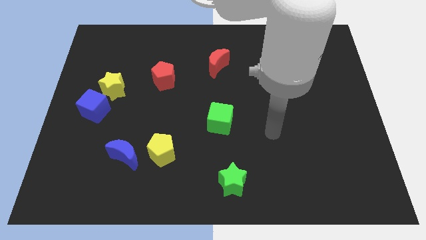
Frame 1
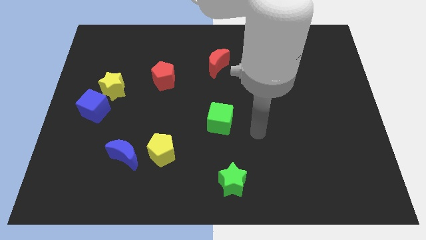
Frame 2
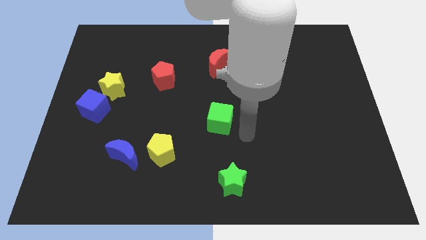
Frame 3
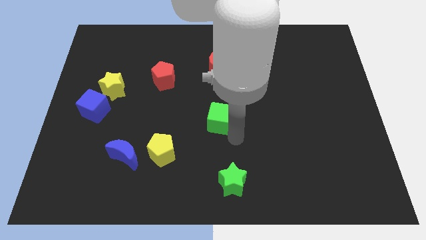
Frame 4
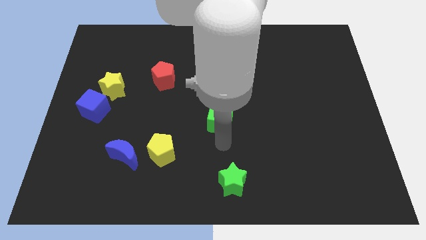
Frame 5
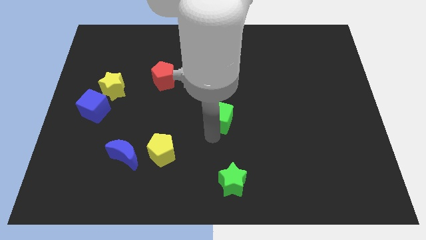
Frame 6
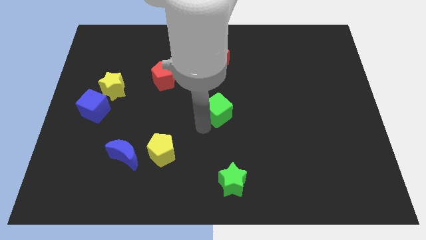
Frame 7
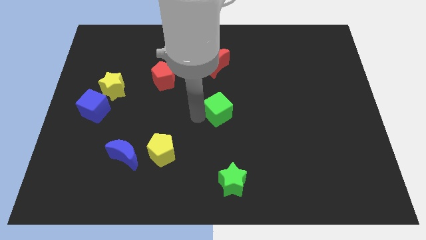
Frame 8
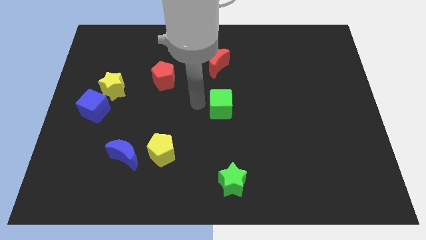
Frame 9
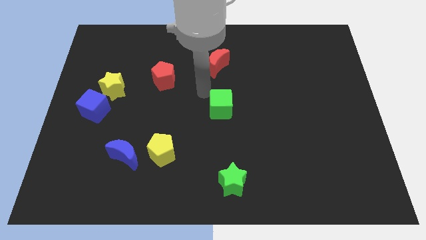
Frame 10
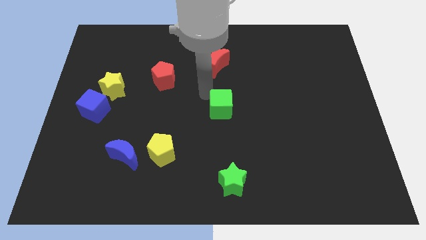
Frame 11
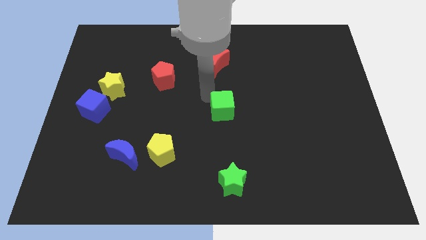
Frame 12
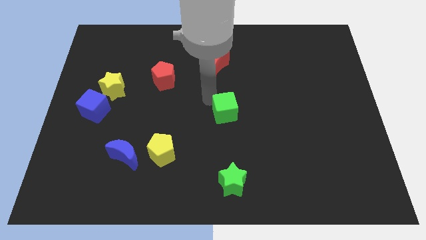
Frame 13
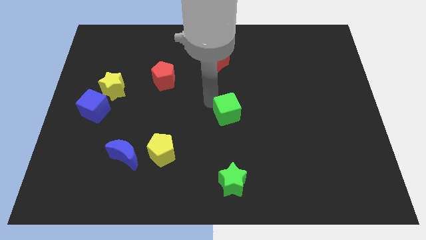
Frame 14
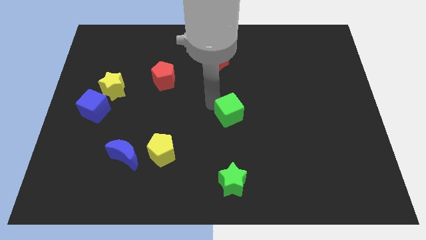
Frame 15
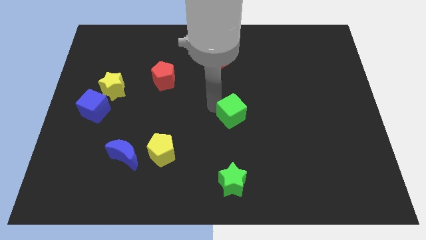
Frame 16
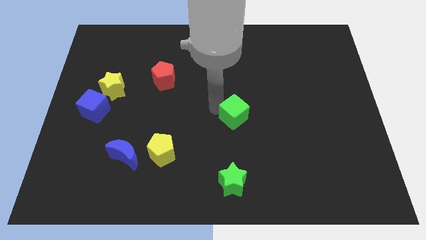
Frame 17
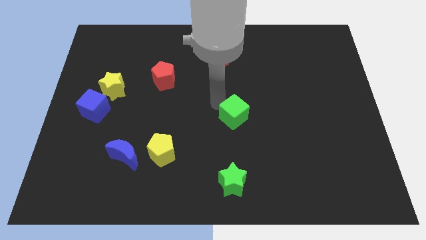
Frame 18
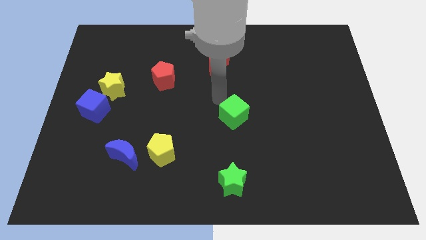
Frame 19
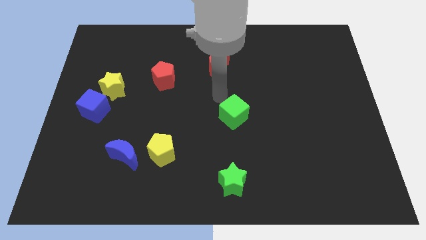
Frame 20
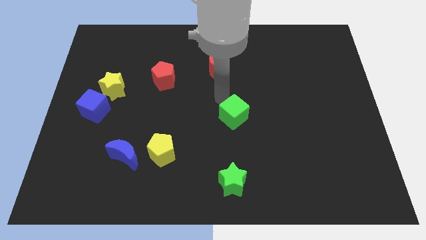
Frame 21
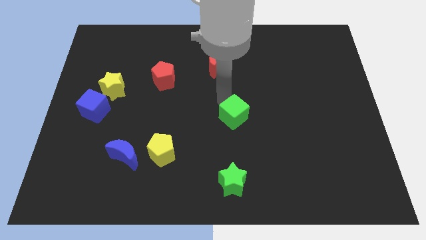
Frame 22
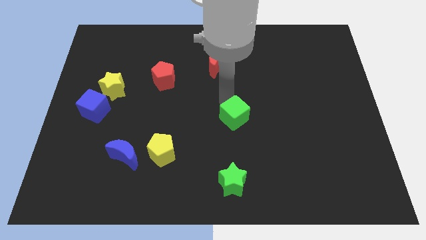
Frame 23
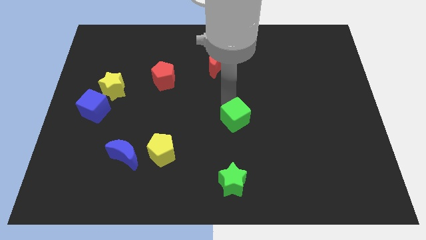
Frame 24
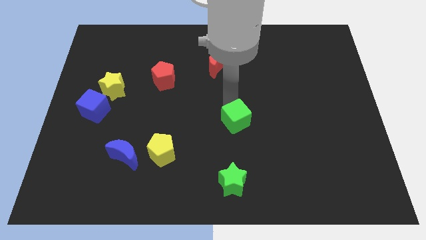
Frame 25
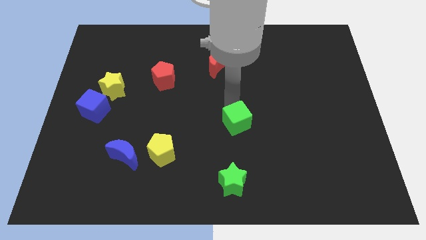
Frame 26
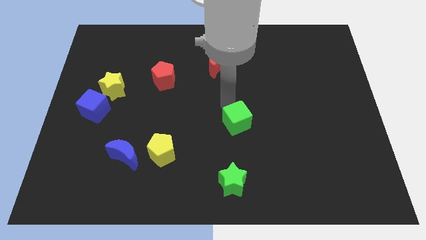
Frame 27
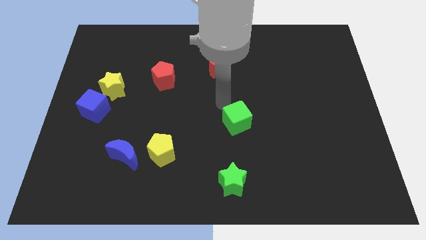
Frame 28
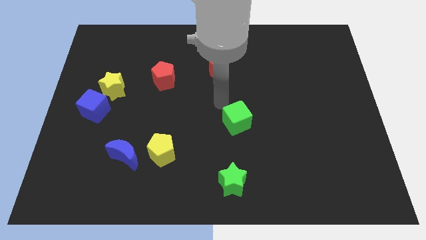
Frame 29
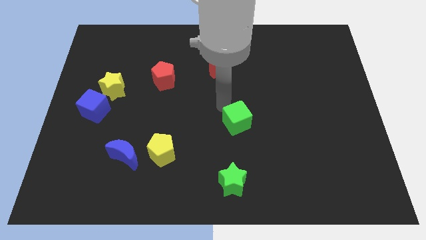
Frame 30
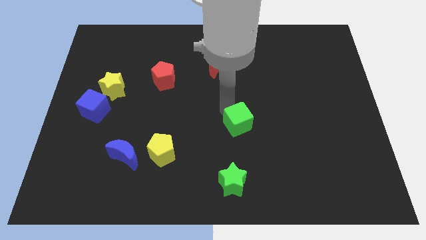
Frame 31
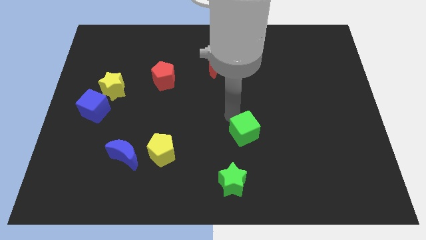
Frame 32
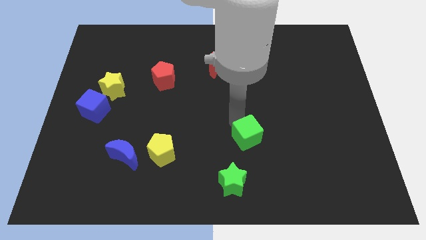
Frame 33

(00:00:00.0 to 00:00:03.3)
slide the green cube downwards and then to the right a bit

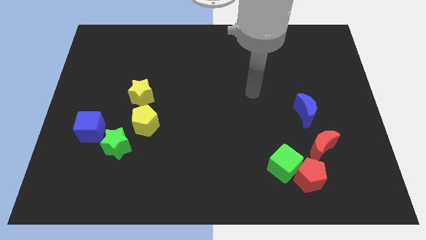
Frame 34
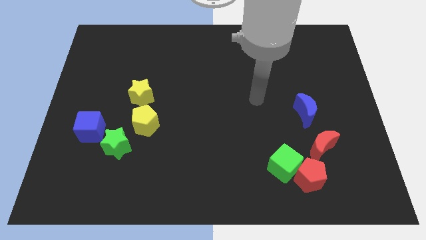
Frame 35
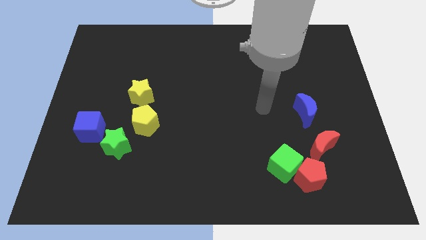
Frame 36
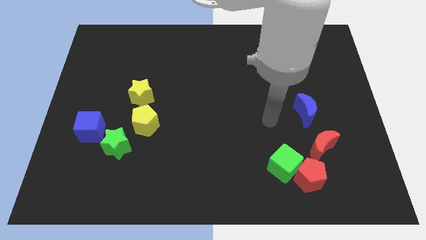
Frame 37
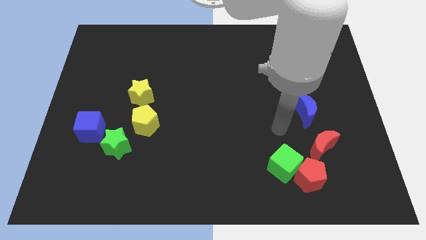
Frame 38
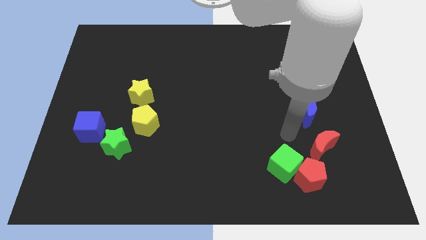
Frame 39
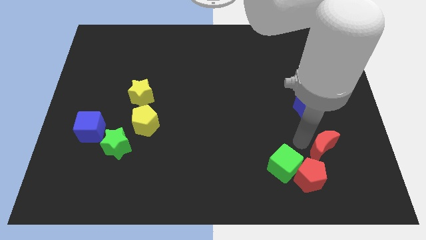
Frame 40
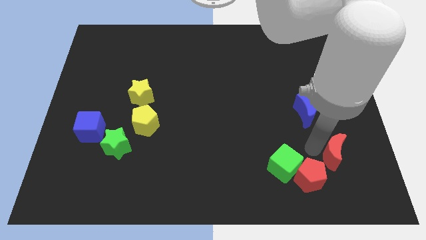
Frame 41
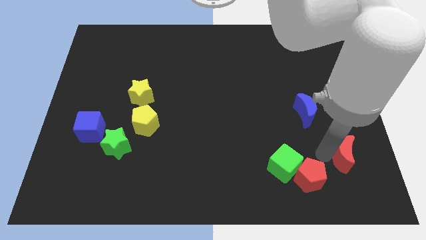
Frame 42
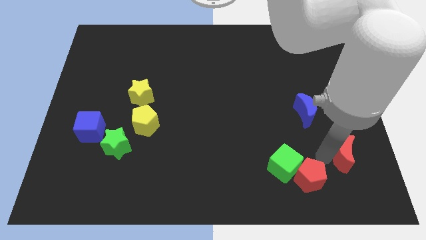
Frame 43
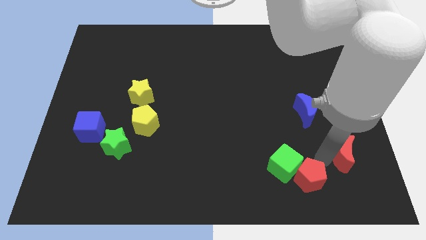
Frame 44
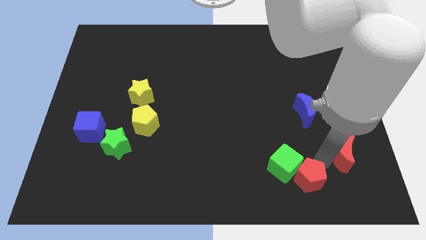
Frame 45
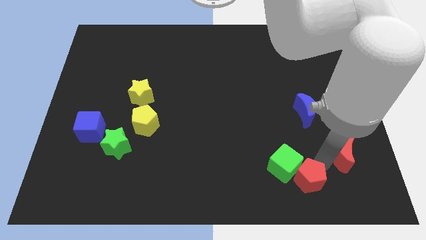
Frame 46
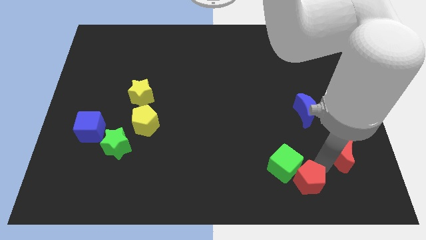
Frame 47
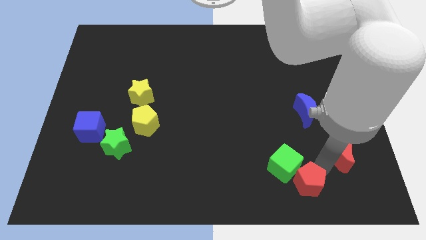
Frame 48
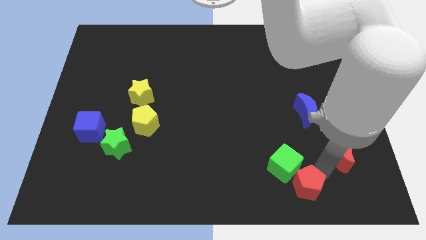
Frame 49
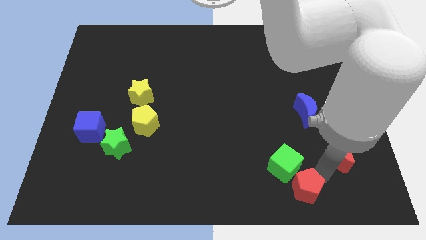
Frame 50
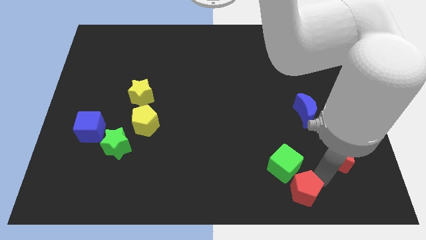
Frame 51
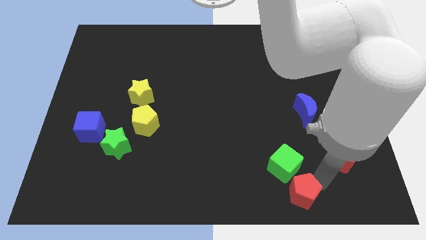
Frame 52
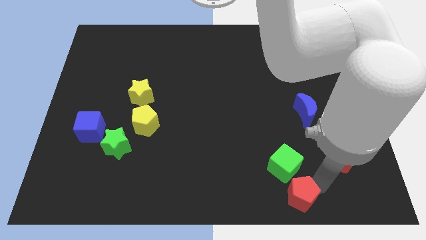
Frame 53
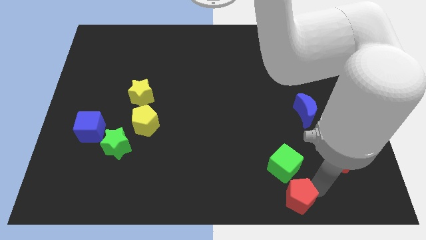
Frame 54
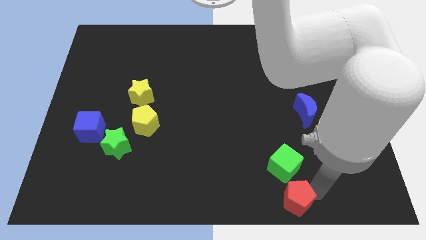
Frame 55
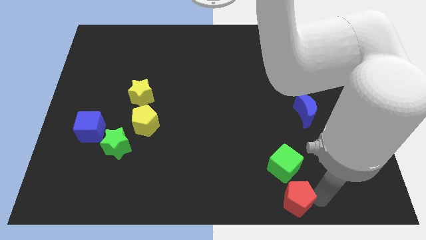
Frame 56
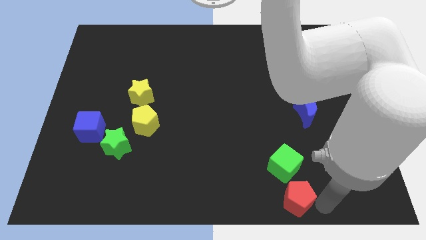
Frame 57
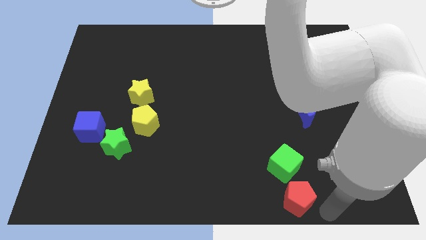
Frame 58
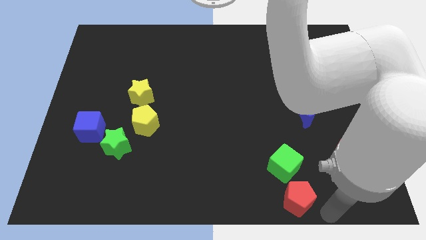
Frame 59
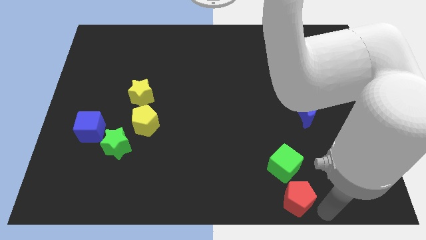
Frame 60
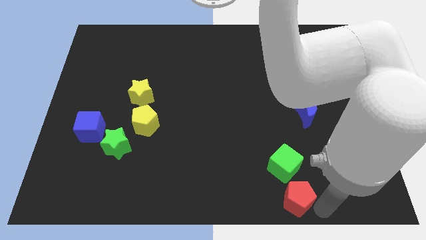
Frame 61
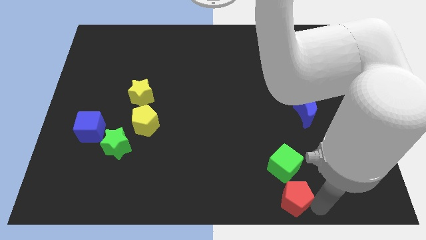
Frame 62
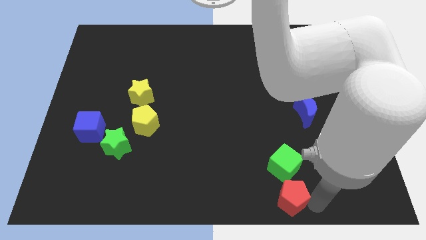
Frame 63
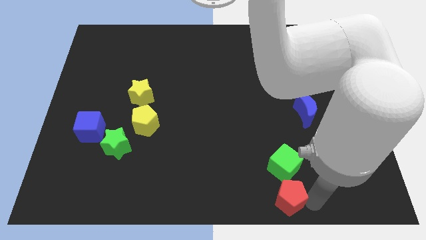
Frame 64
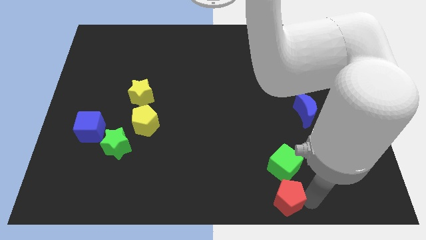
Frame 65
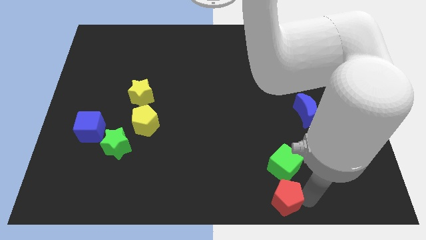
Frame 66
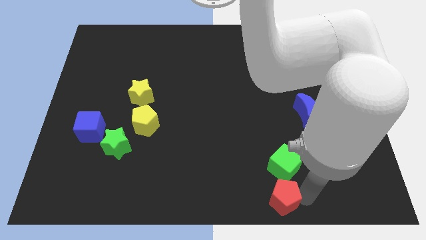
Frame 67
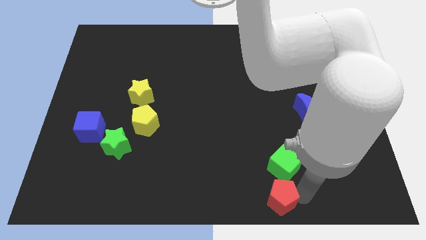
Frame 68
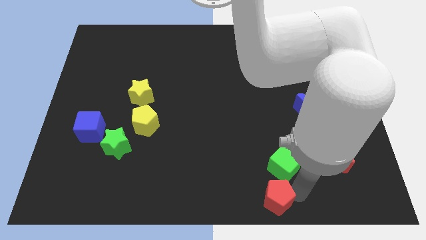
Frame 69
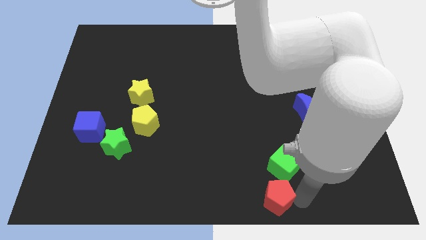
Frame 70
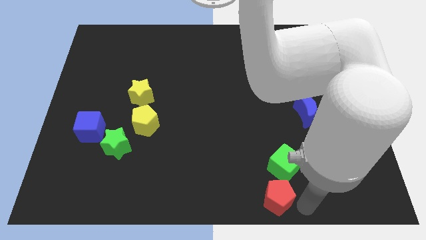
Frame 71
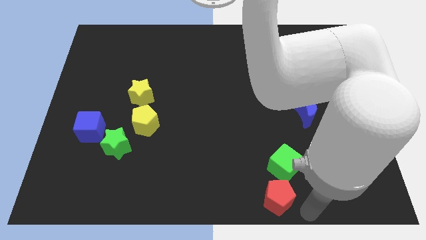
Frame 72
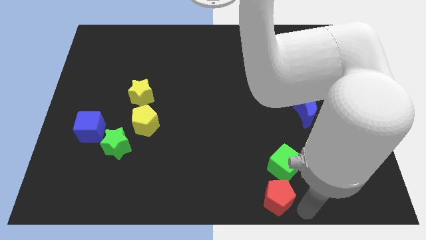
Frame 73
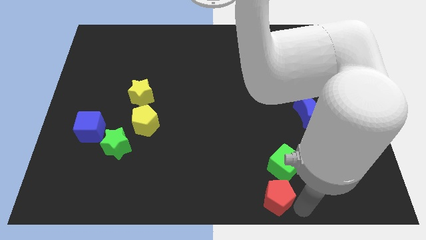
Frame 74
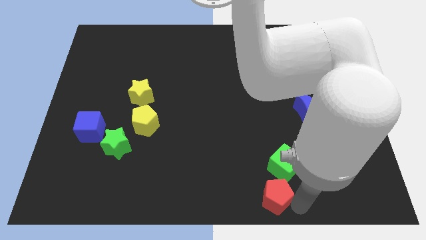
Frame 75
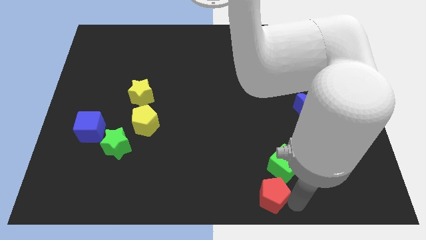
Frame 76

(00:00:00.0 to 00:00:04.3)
push the red pentagon to the left a bit

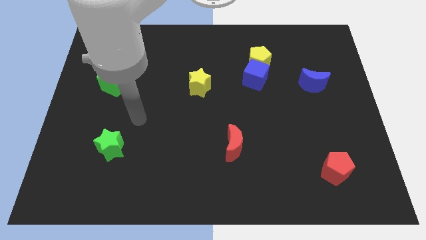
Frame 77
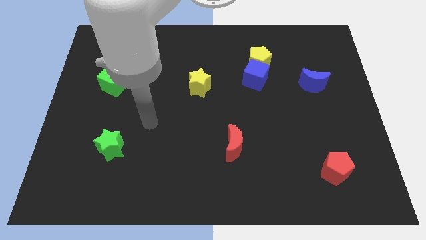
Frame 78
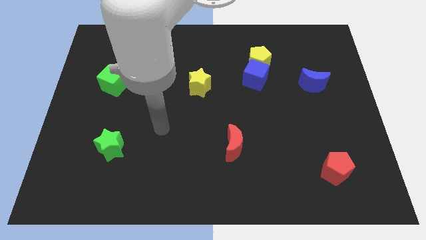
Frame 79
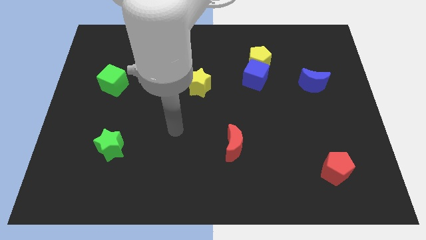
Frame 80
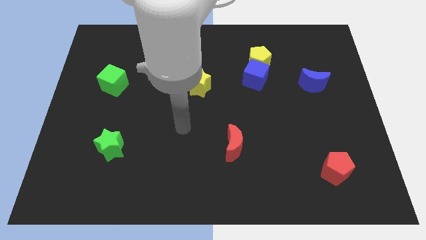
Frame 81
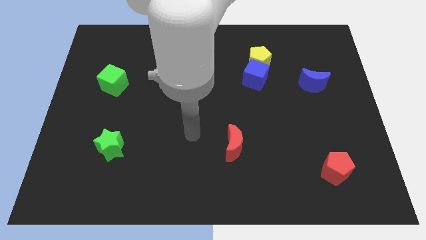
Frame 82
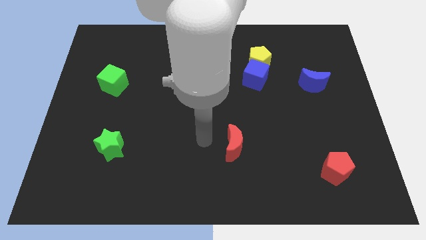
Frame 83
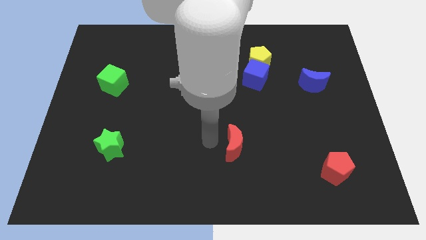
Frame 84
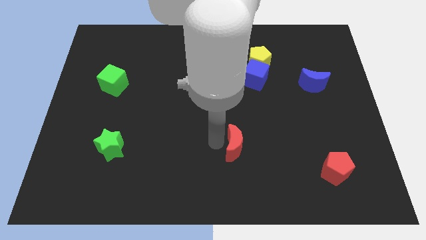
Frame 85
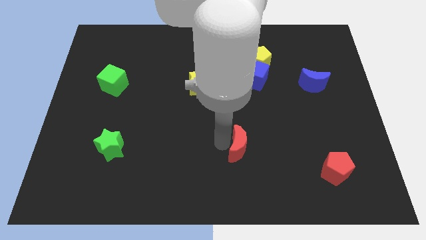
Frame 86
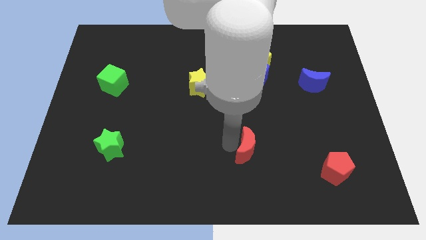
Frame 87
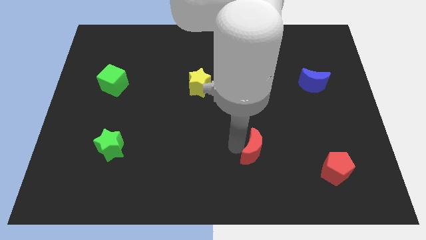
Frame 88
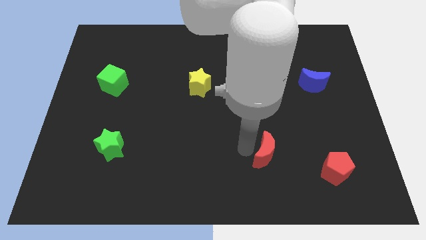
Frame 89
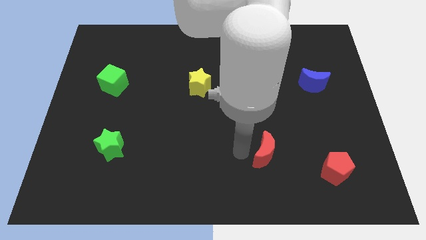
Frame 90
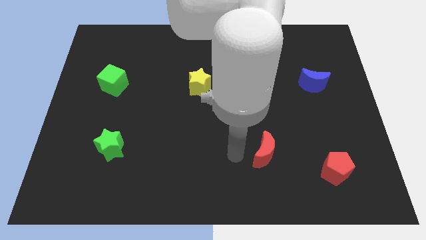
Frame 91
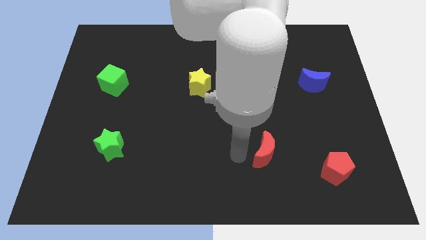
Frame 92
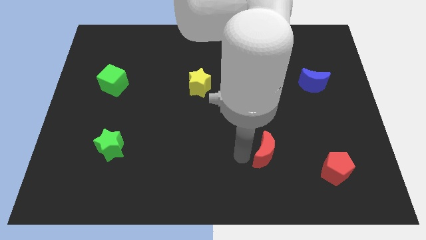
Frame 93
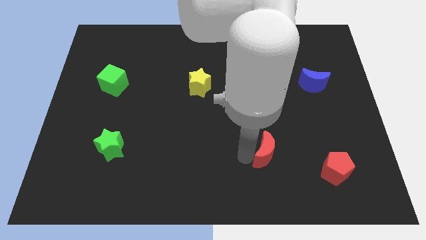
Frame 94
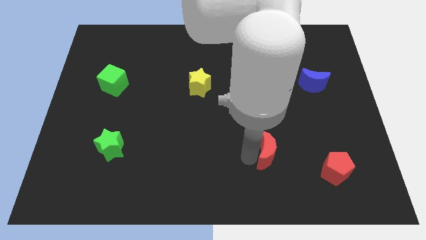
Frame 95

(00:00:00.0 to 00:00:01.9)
move the red moon right slightly
